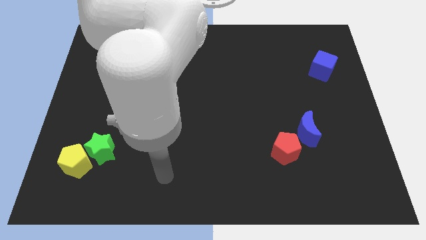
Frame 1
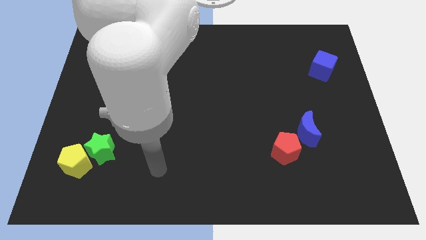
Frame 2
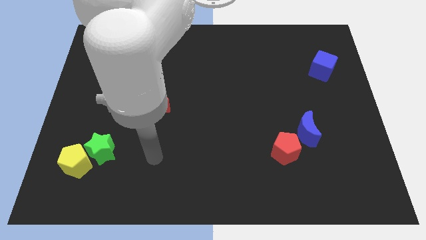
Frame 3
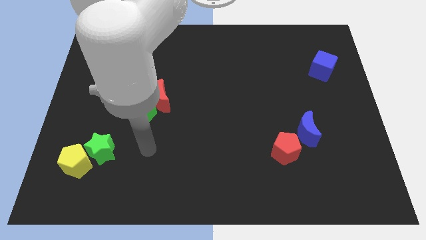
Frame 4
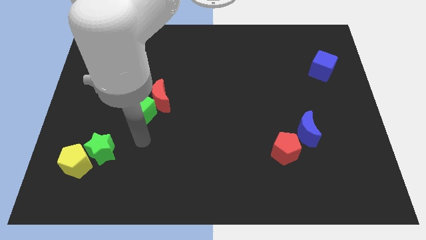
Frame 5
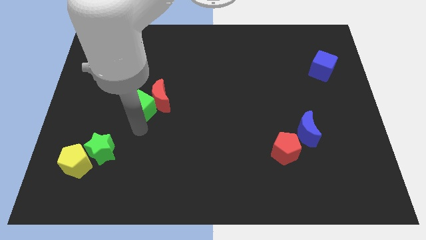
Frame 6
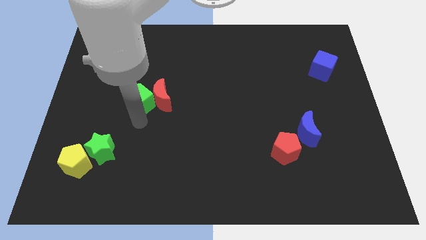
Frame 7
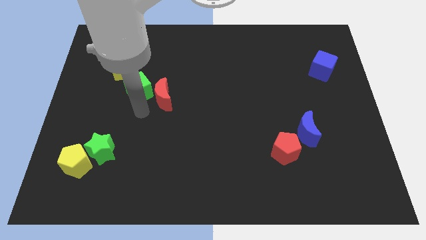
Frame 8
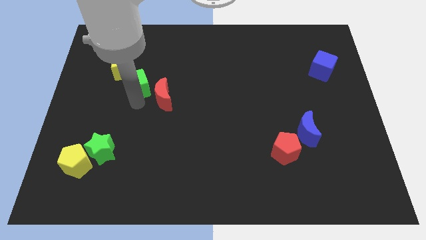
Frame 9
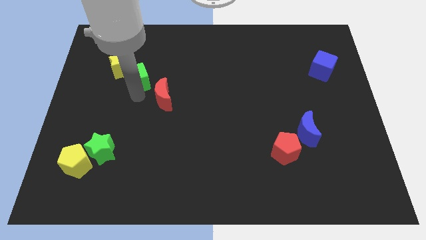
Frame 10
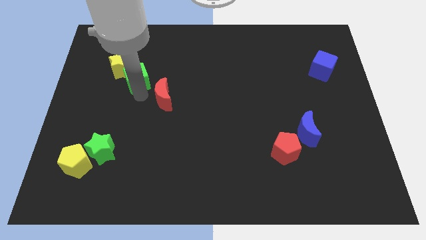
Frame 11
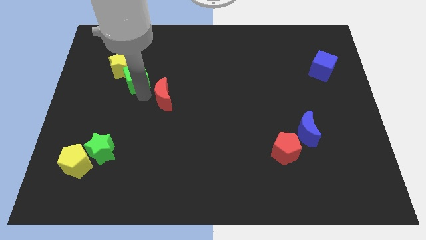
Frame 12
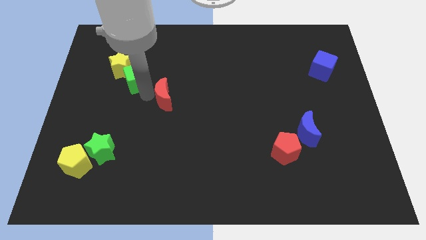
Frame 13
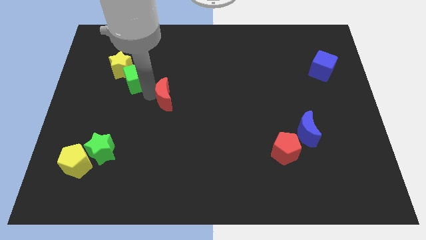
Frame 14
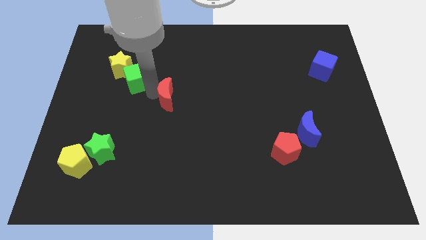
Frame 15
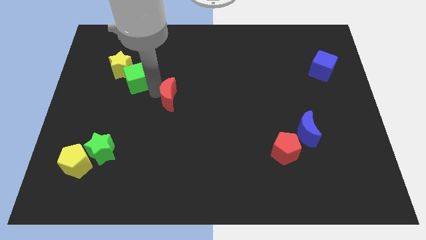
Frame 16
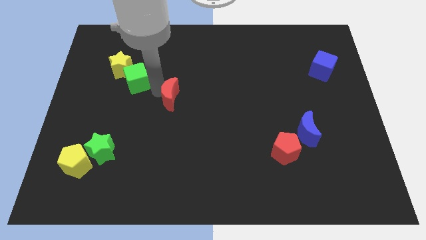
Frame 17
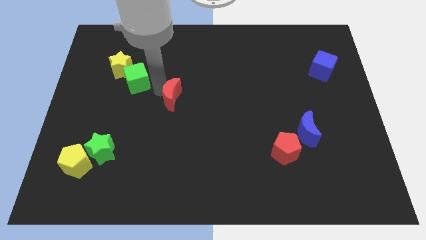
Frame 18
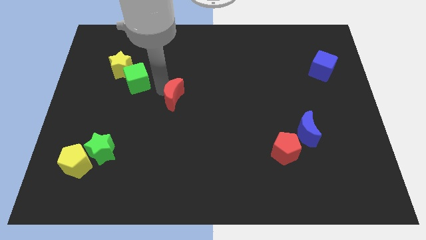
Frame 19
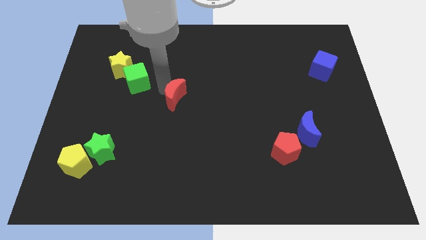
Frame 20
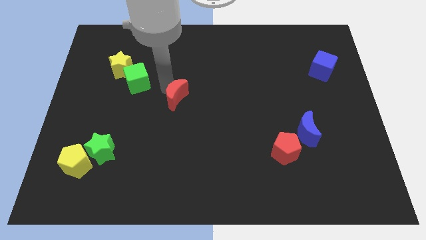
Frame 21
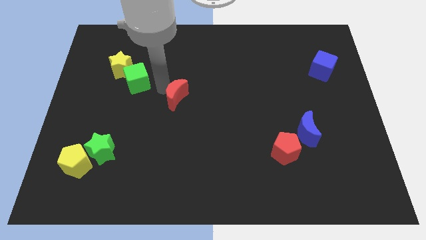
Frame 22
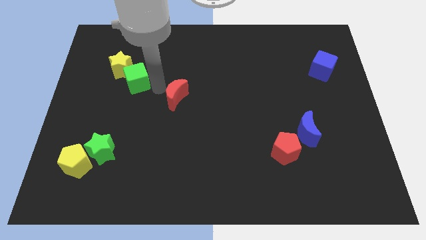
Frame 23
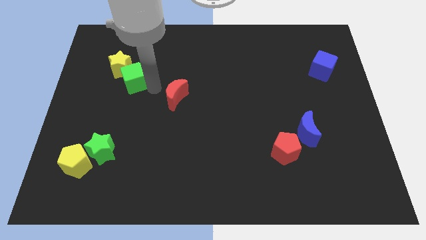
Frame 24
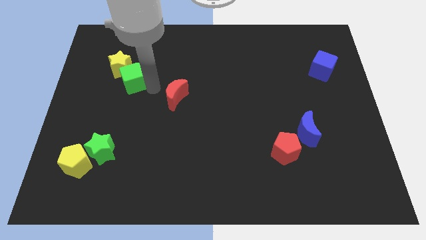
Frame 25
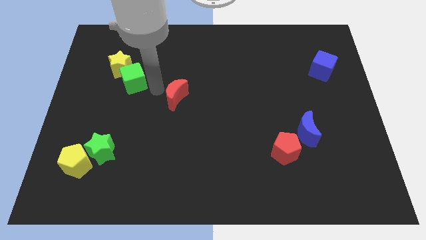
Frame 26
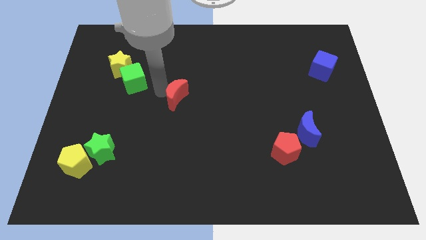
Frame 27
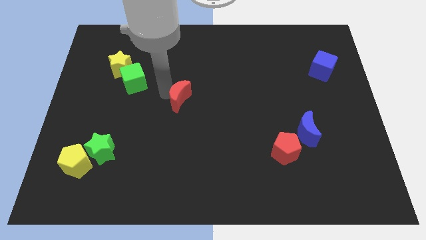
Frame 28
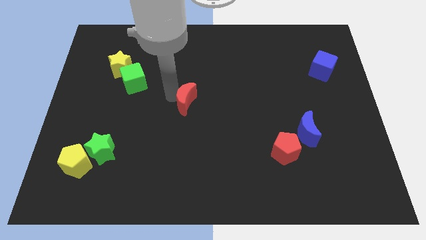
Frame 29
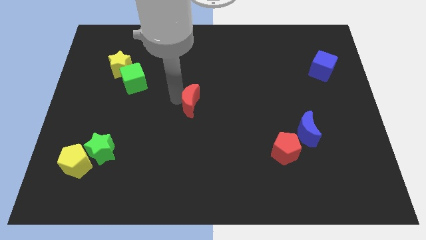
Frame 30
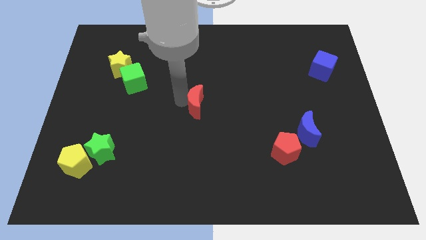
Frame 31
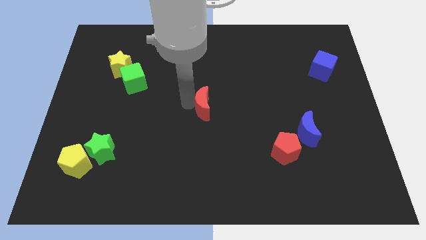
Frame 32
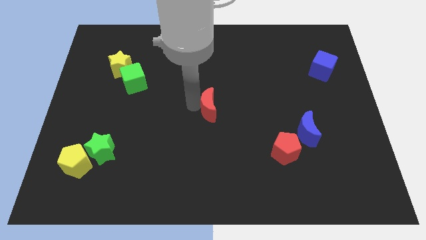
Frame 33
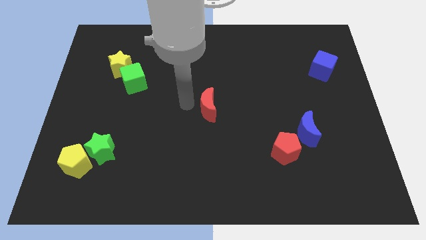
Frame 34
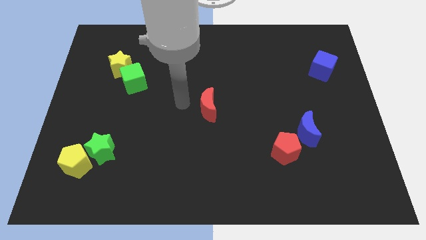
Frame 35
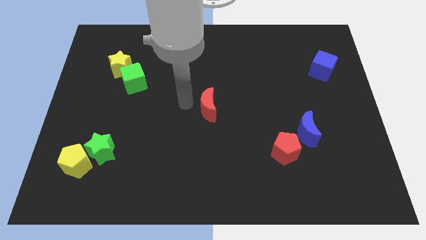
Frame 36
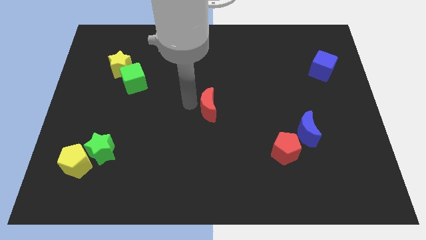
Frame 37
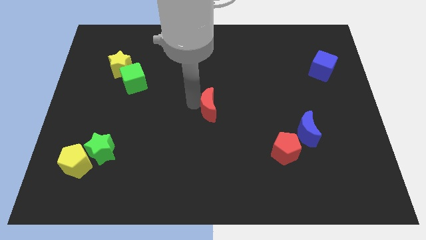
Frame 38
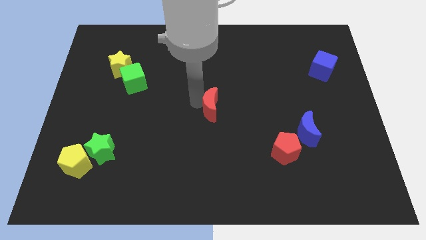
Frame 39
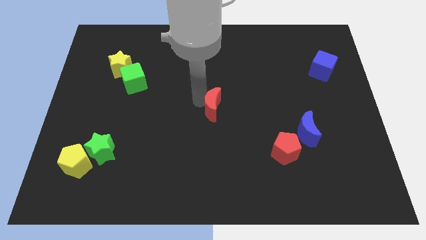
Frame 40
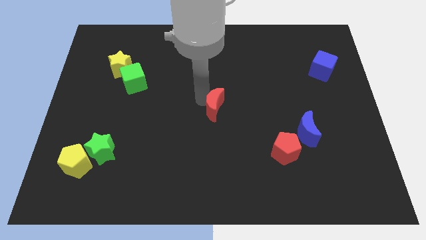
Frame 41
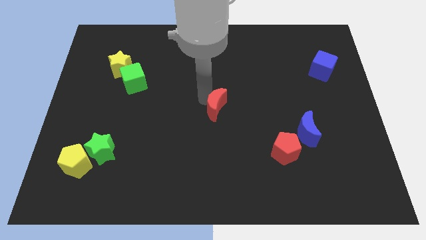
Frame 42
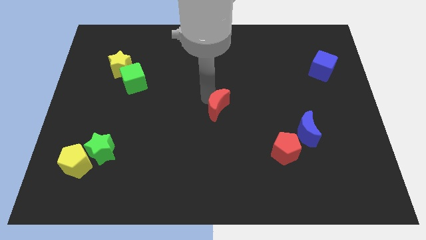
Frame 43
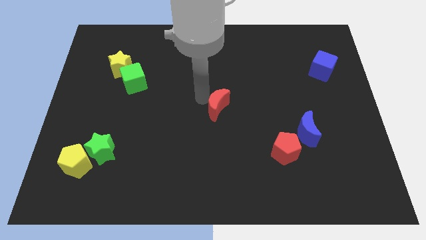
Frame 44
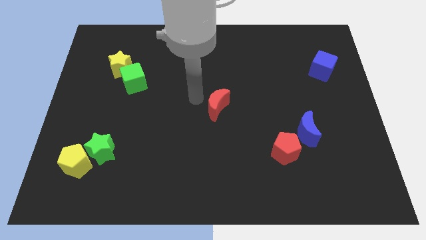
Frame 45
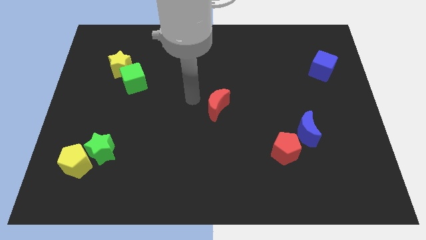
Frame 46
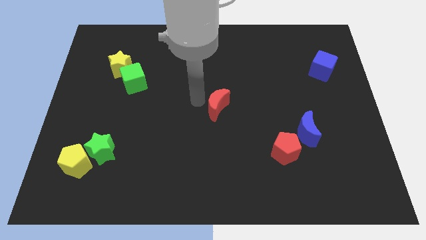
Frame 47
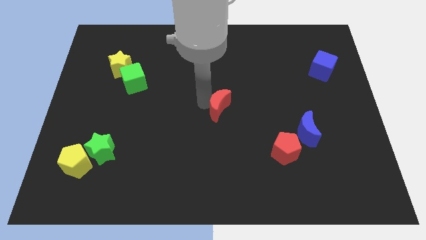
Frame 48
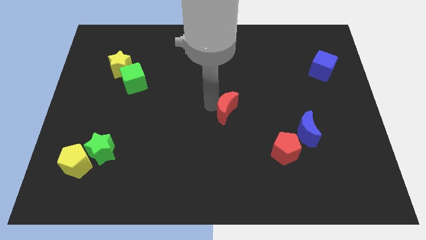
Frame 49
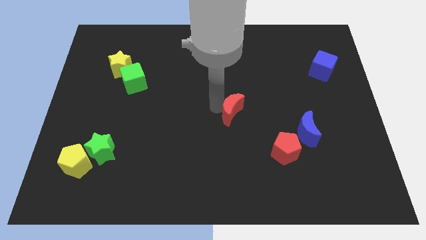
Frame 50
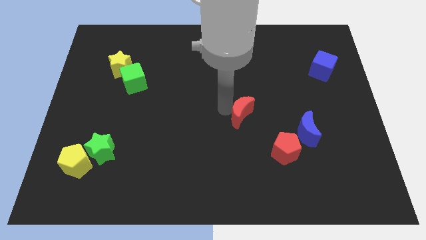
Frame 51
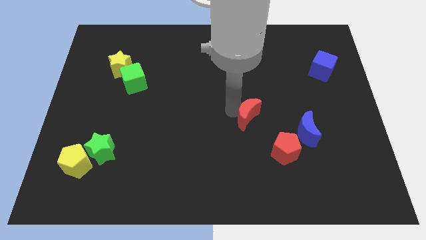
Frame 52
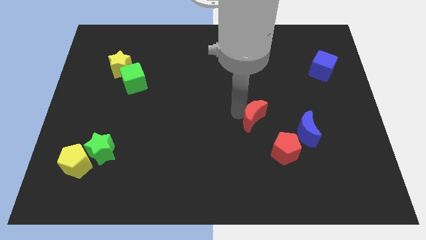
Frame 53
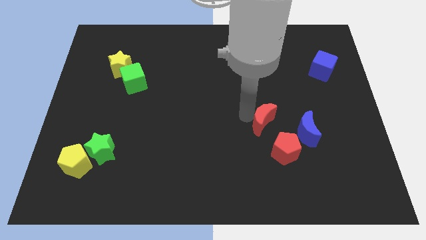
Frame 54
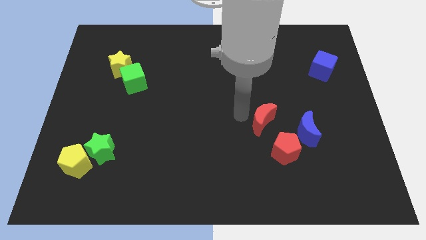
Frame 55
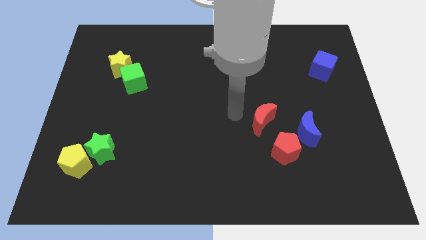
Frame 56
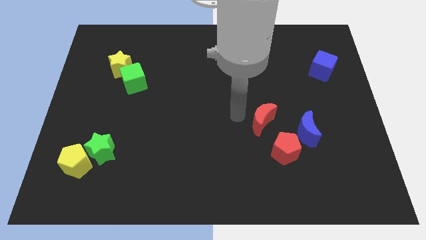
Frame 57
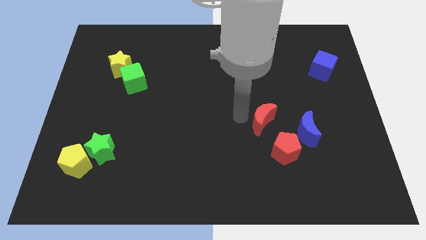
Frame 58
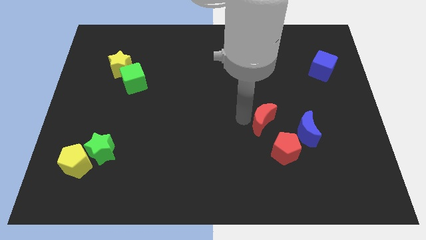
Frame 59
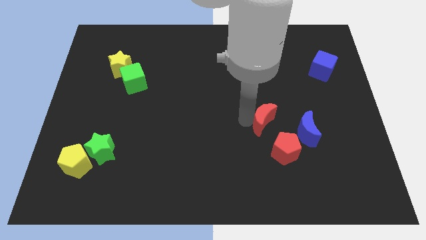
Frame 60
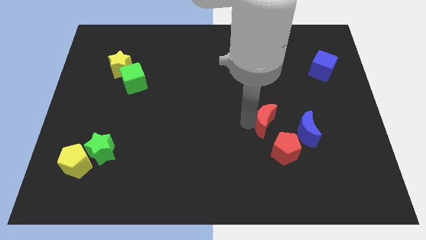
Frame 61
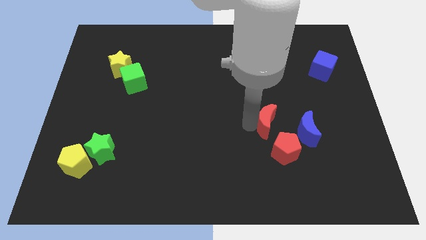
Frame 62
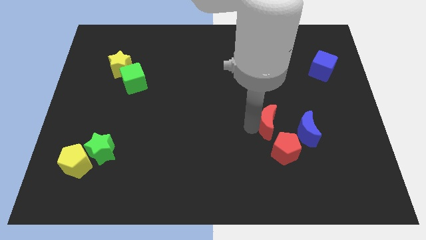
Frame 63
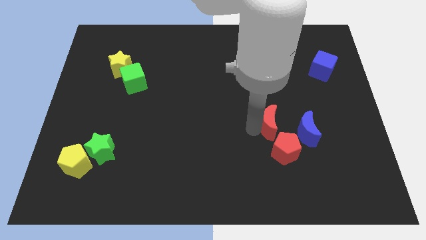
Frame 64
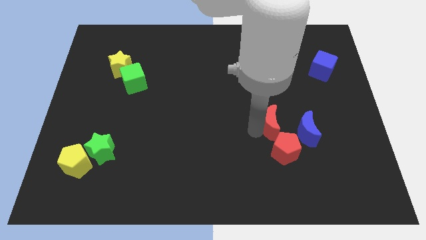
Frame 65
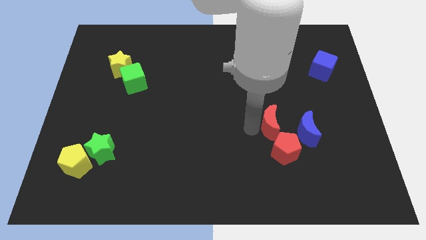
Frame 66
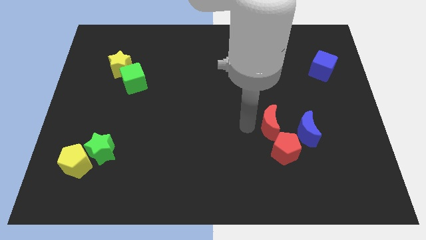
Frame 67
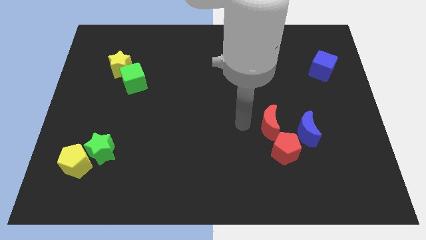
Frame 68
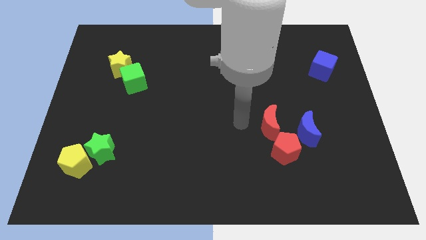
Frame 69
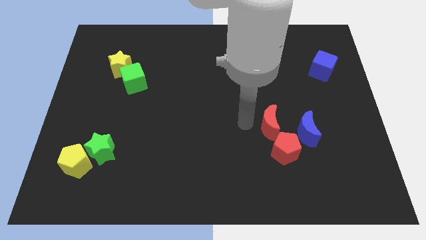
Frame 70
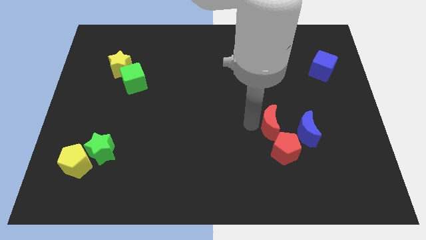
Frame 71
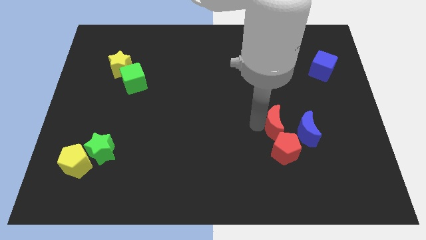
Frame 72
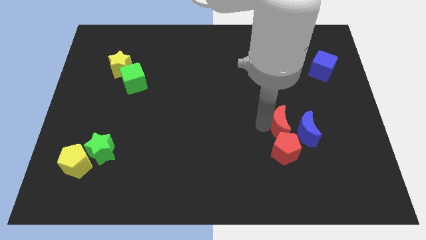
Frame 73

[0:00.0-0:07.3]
move the red moon to the blue moon
